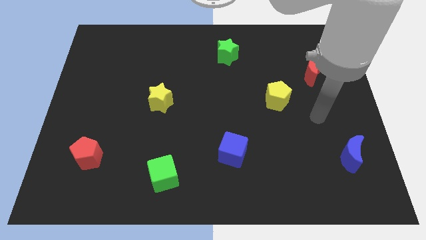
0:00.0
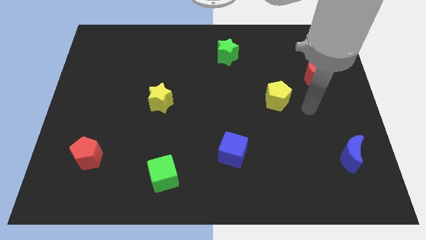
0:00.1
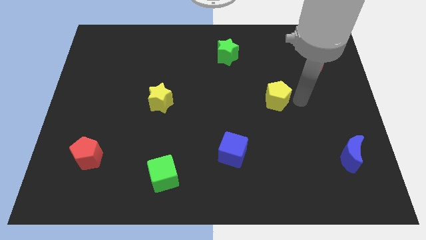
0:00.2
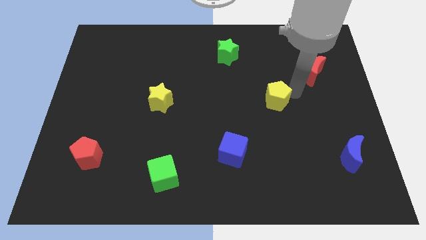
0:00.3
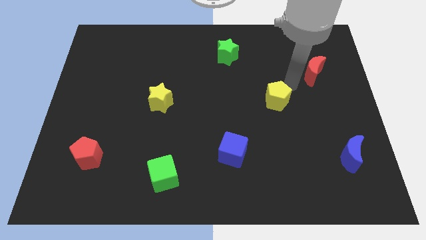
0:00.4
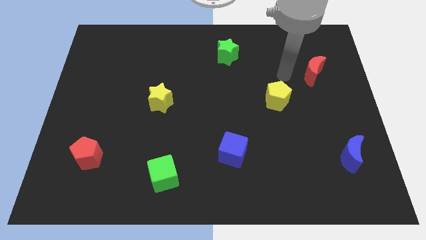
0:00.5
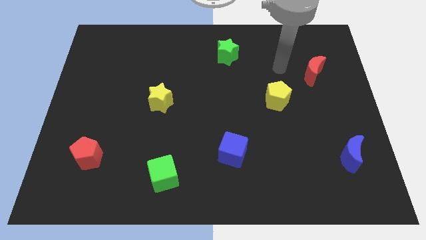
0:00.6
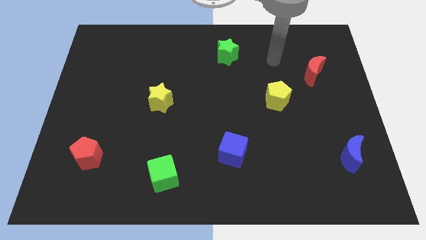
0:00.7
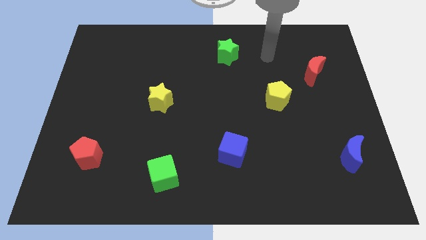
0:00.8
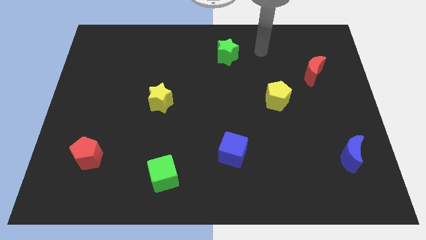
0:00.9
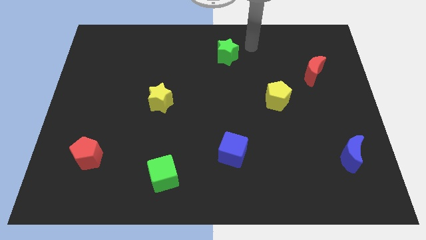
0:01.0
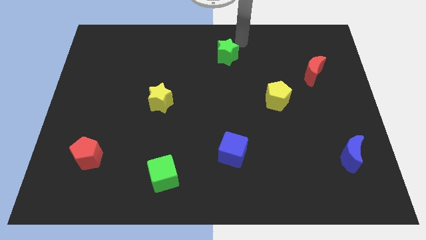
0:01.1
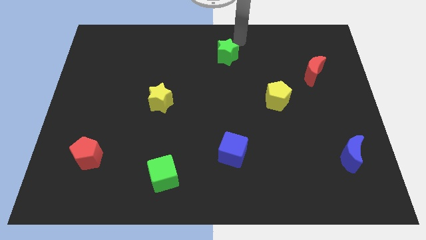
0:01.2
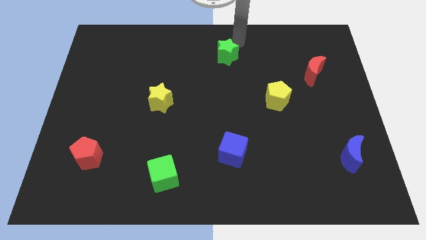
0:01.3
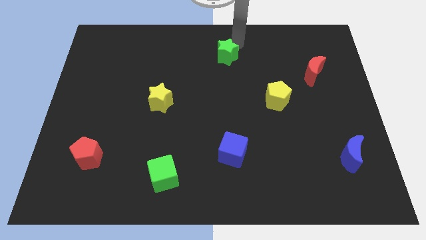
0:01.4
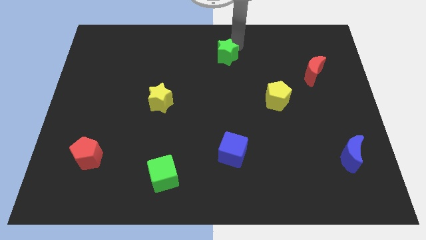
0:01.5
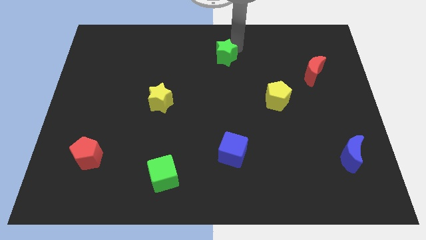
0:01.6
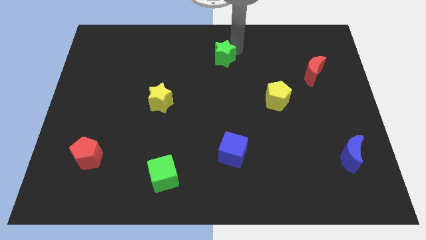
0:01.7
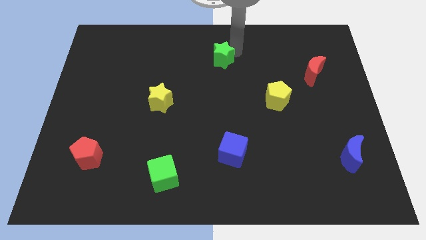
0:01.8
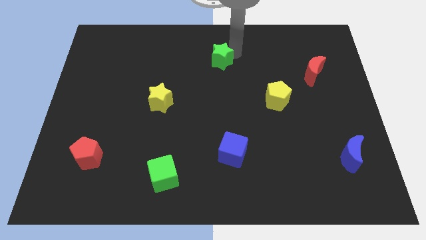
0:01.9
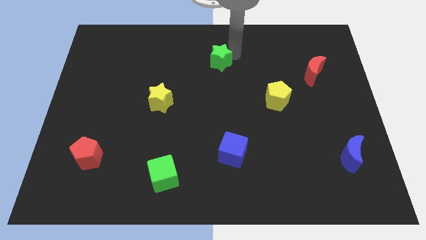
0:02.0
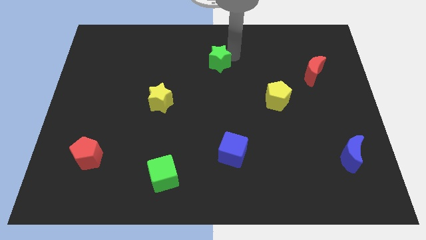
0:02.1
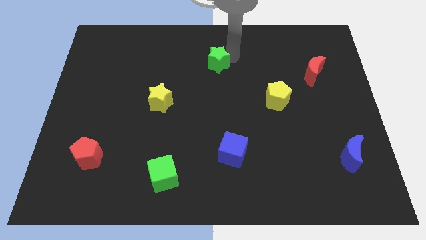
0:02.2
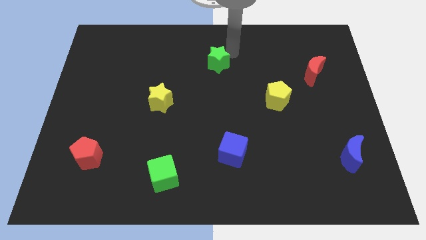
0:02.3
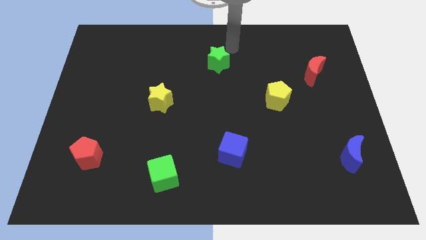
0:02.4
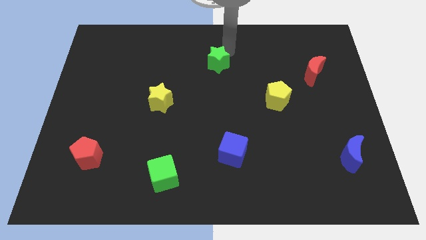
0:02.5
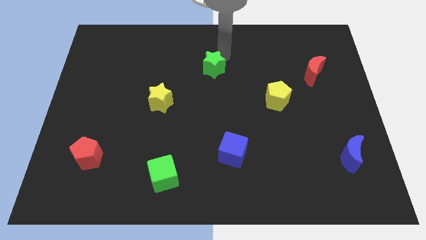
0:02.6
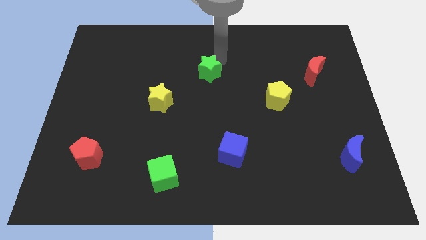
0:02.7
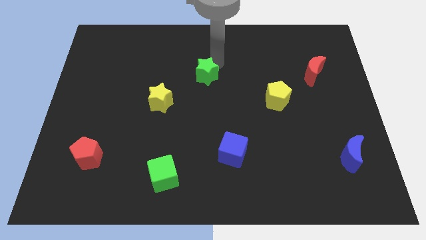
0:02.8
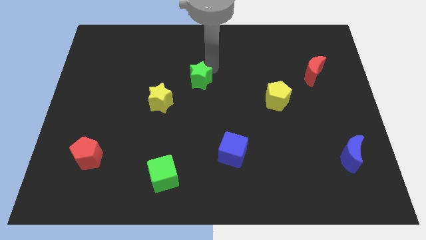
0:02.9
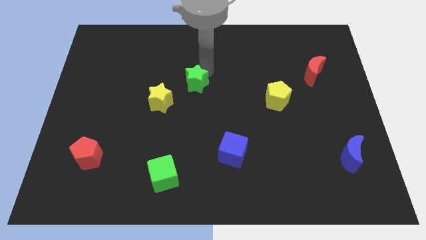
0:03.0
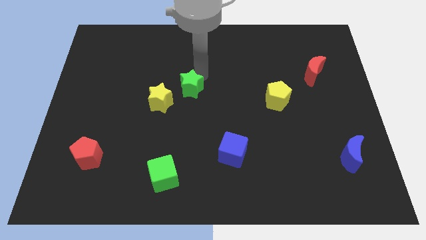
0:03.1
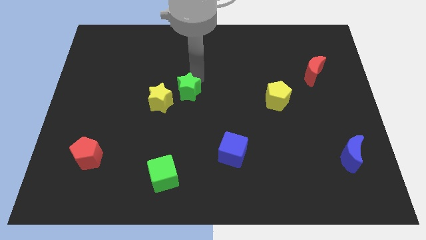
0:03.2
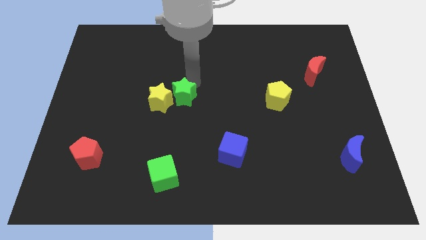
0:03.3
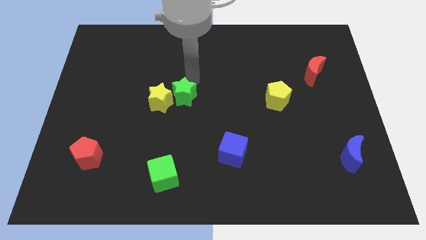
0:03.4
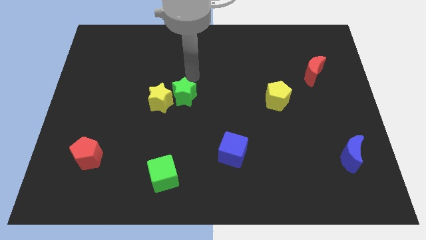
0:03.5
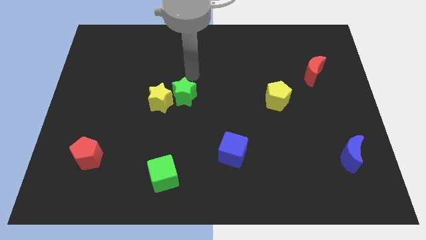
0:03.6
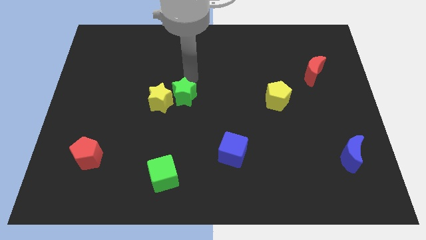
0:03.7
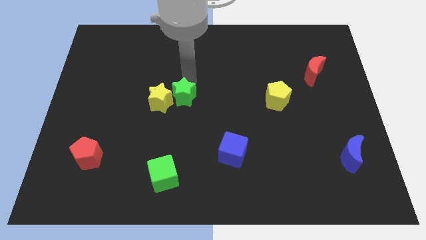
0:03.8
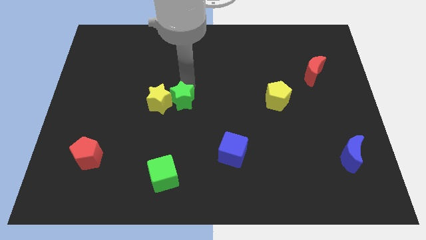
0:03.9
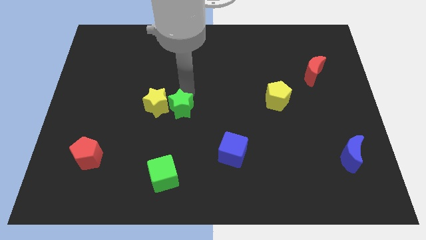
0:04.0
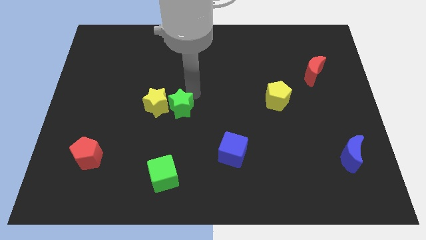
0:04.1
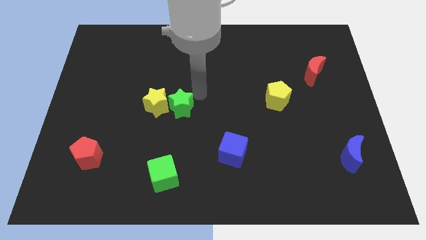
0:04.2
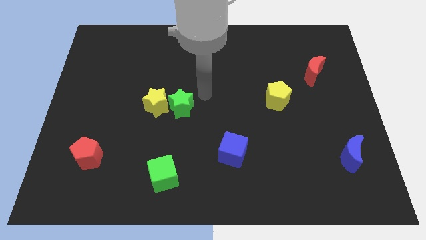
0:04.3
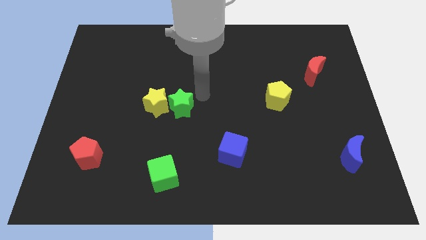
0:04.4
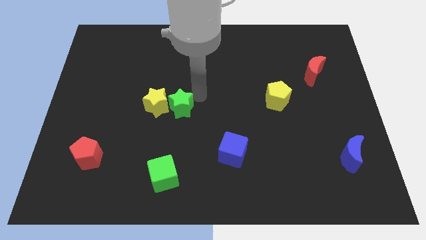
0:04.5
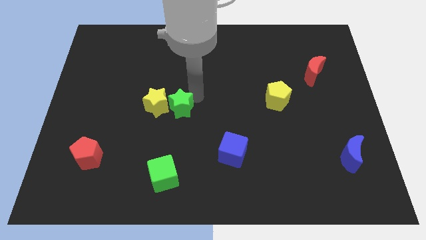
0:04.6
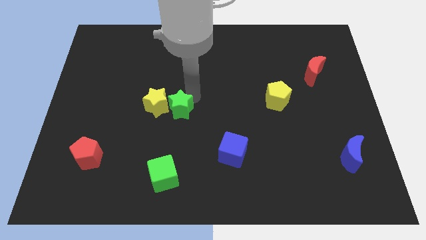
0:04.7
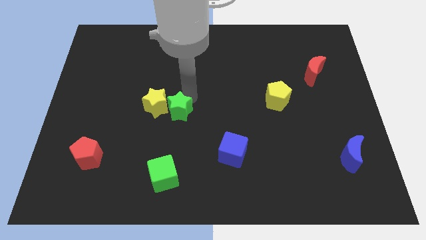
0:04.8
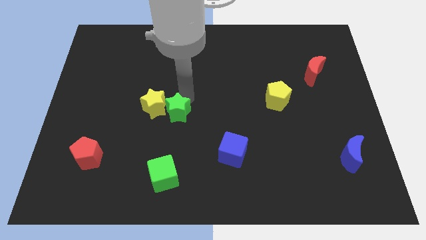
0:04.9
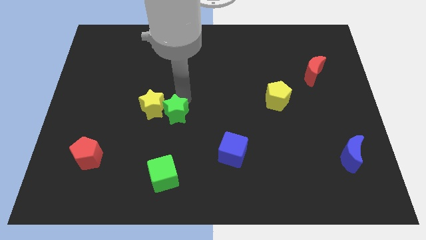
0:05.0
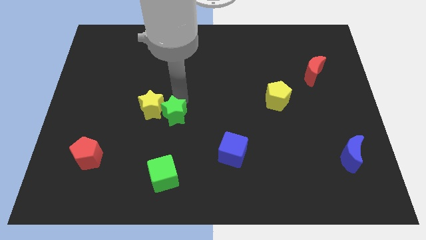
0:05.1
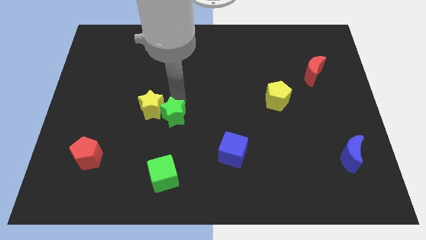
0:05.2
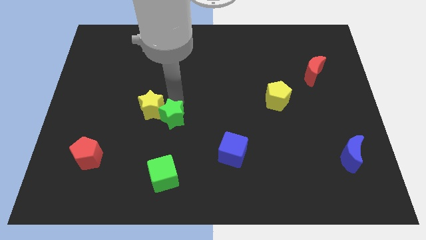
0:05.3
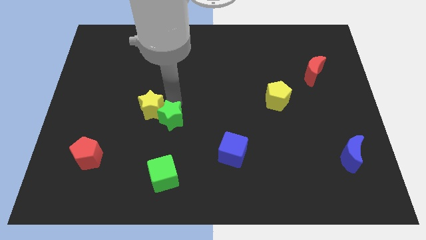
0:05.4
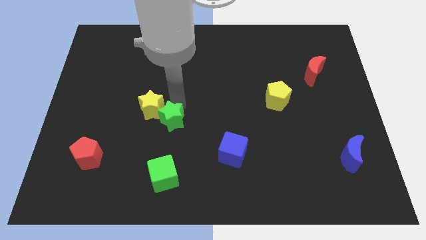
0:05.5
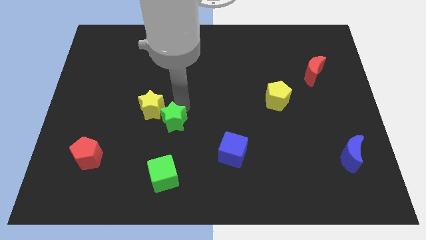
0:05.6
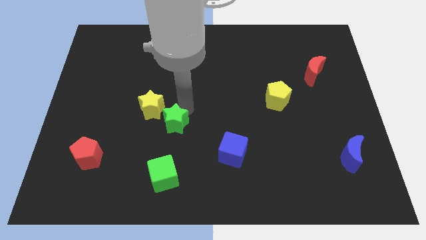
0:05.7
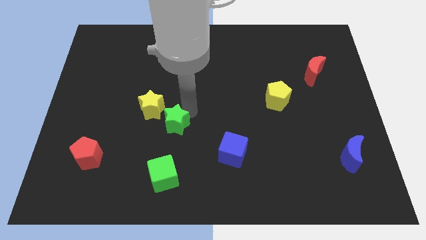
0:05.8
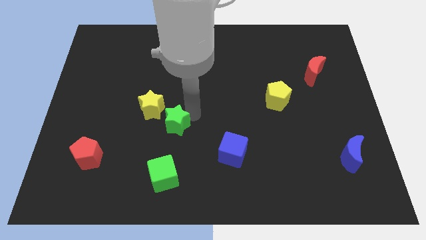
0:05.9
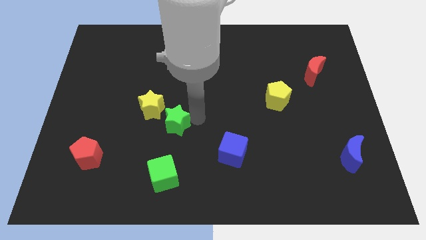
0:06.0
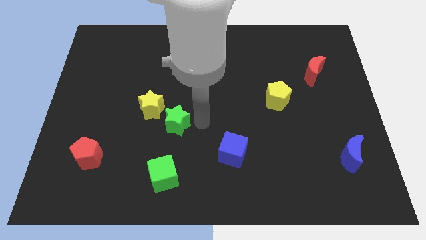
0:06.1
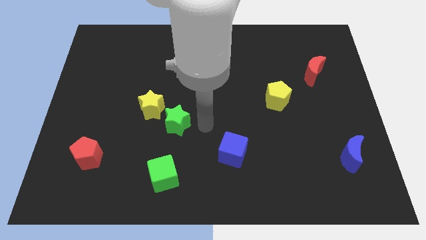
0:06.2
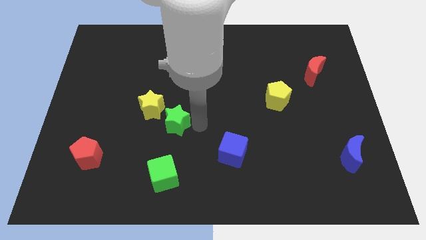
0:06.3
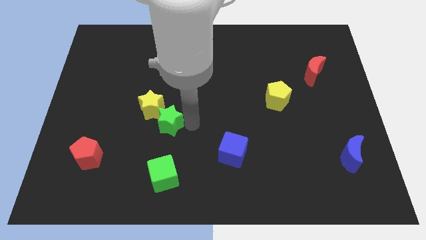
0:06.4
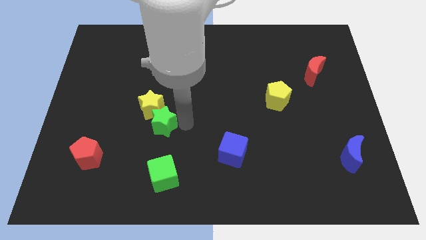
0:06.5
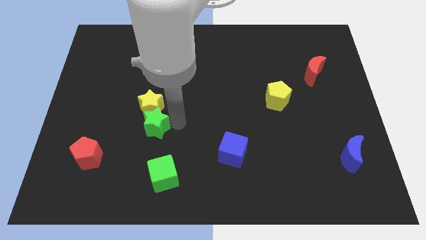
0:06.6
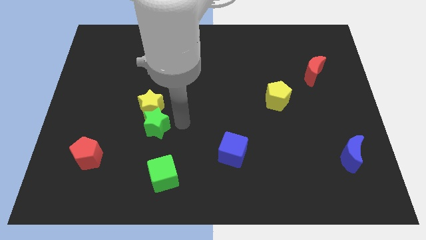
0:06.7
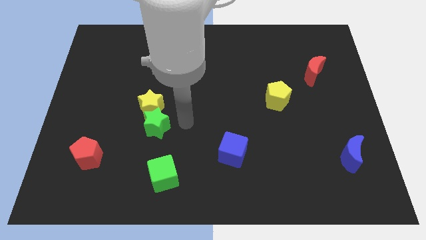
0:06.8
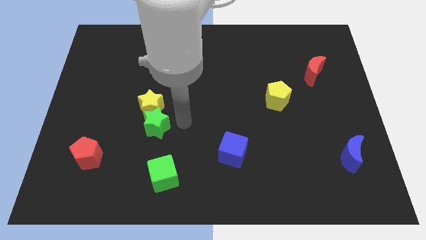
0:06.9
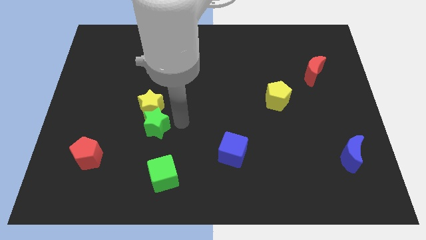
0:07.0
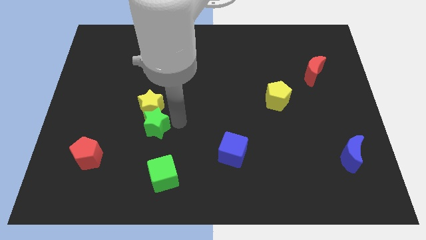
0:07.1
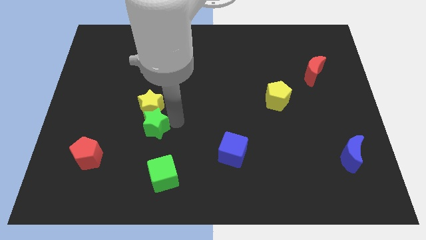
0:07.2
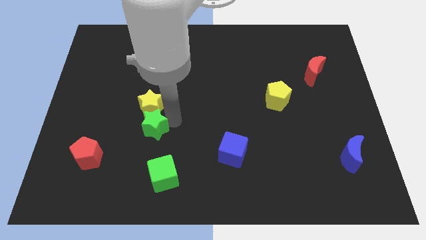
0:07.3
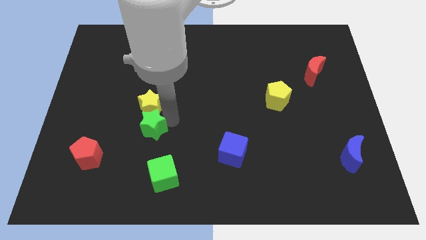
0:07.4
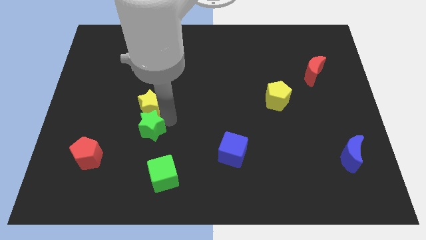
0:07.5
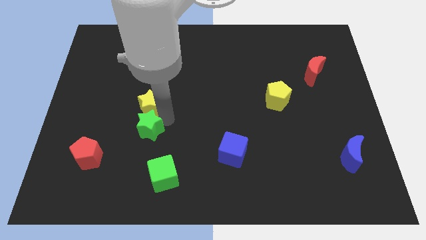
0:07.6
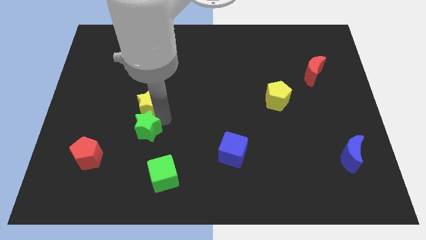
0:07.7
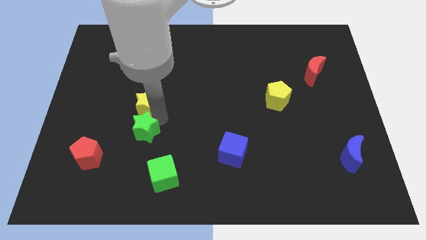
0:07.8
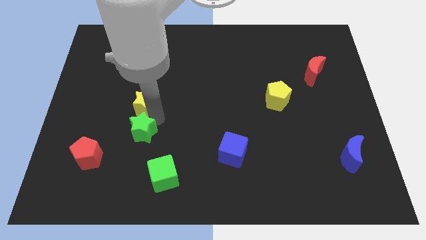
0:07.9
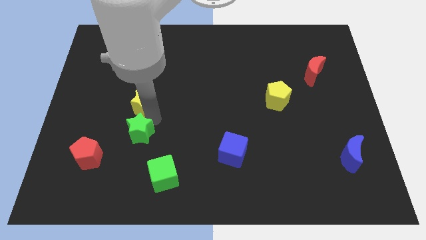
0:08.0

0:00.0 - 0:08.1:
put the green star to the top right side of the red pentagon
